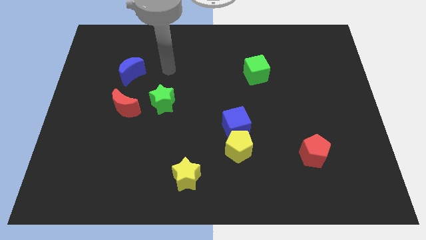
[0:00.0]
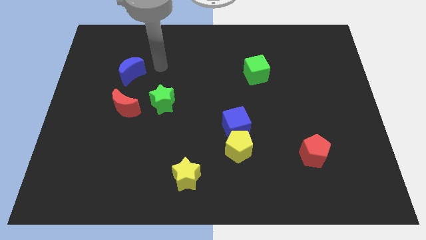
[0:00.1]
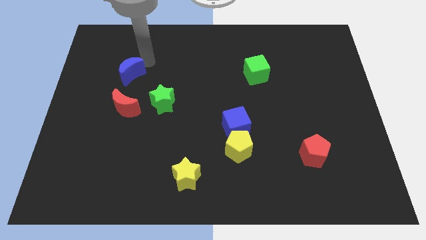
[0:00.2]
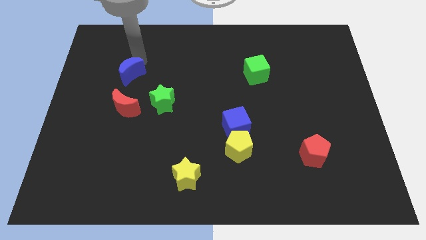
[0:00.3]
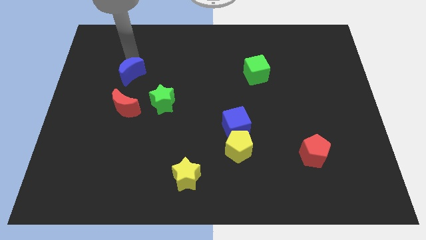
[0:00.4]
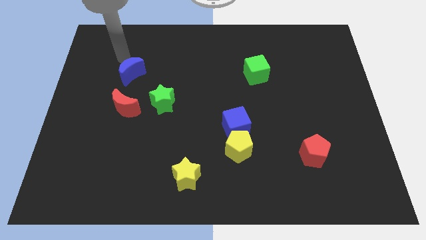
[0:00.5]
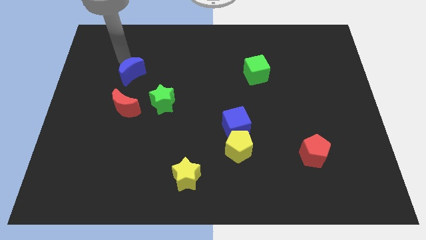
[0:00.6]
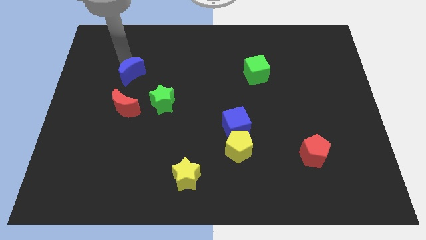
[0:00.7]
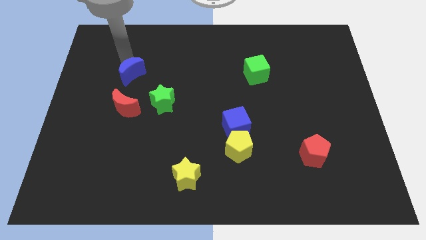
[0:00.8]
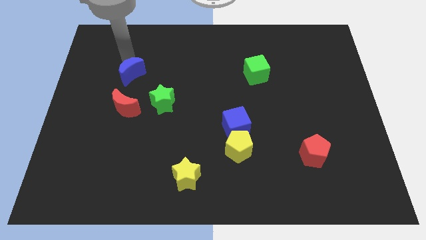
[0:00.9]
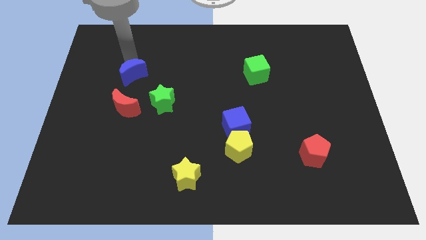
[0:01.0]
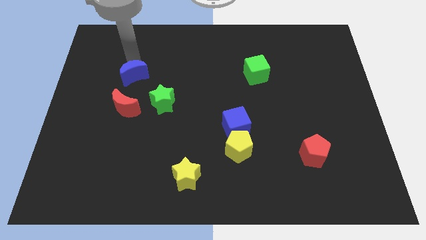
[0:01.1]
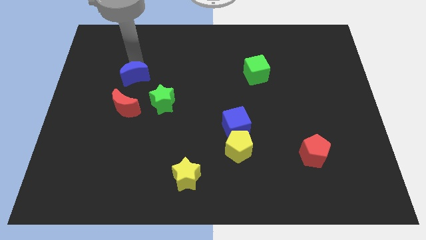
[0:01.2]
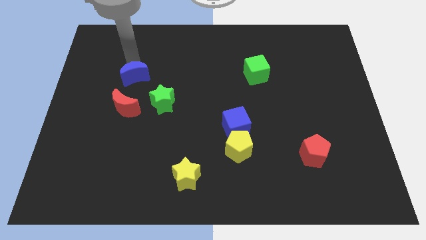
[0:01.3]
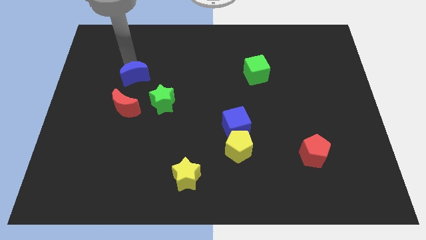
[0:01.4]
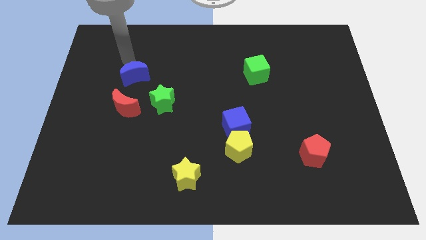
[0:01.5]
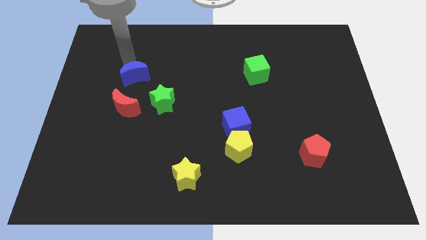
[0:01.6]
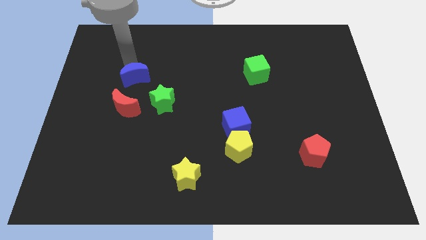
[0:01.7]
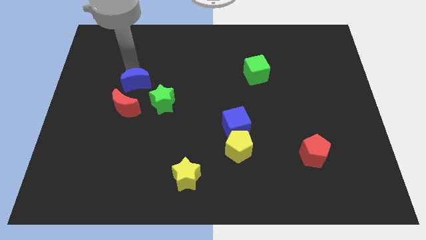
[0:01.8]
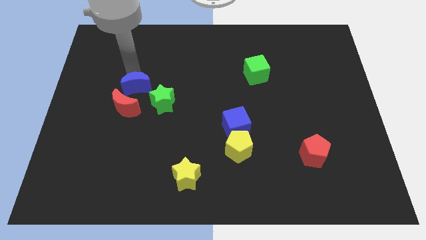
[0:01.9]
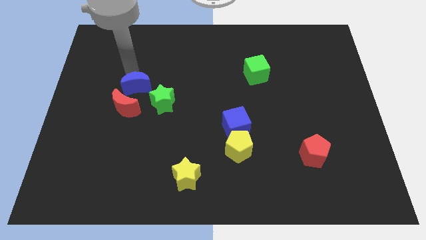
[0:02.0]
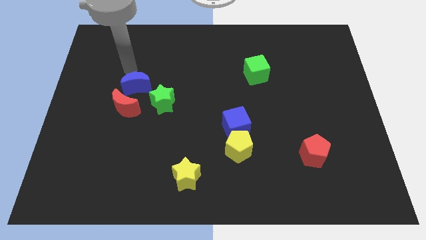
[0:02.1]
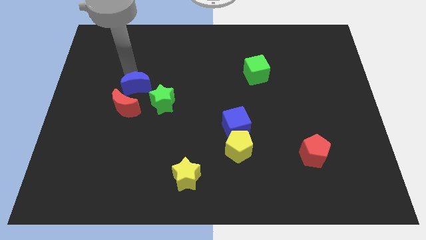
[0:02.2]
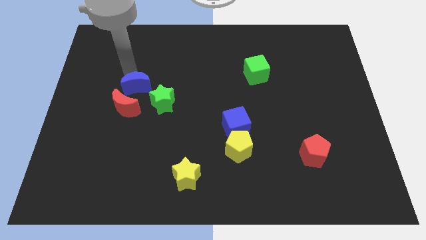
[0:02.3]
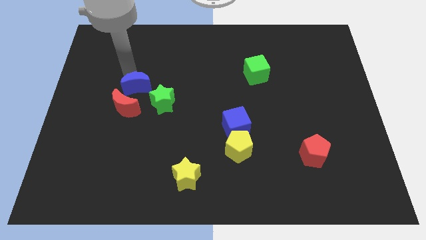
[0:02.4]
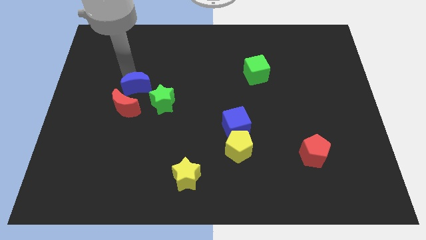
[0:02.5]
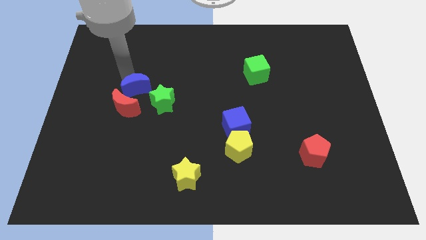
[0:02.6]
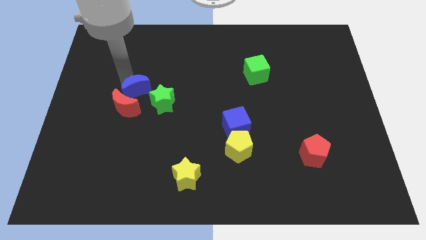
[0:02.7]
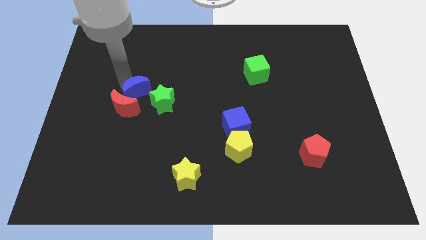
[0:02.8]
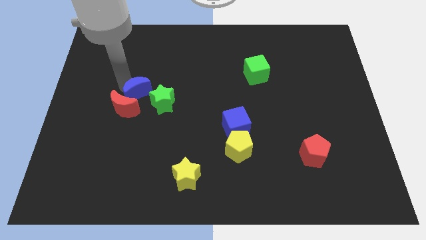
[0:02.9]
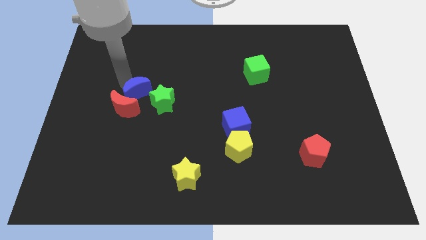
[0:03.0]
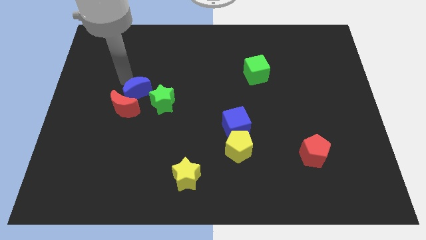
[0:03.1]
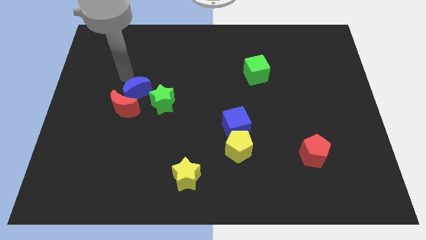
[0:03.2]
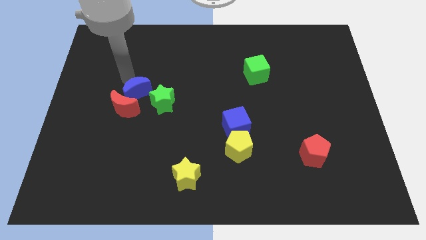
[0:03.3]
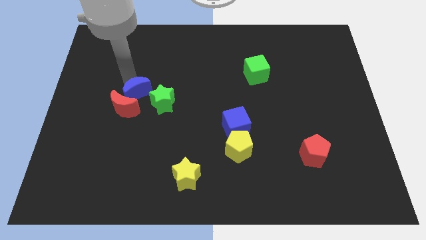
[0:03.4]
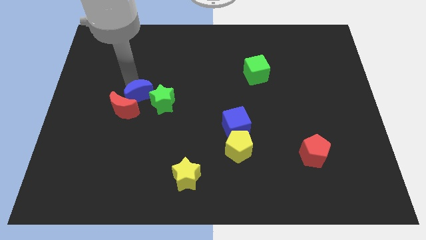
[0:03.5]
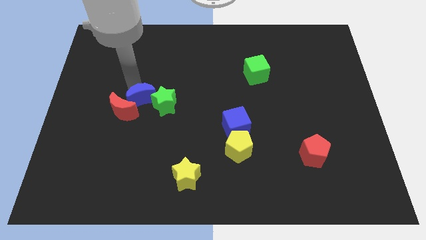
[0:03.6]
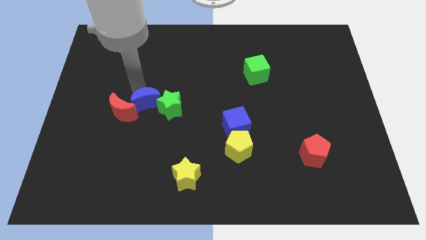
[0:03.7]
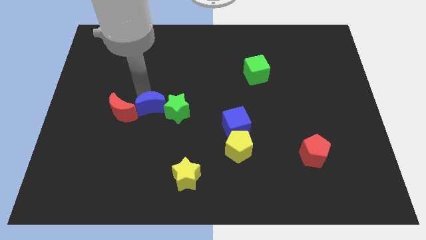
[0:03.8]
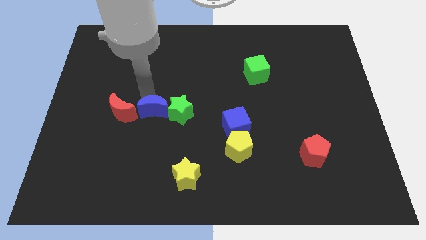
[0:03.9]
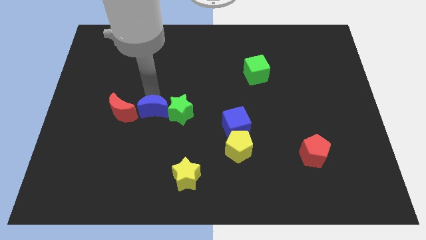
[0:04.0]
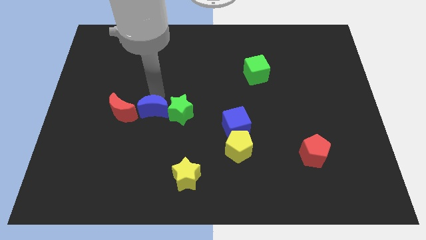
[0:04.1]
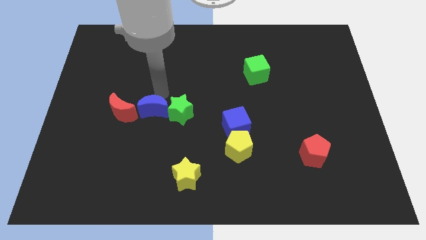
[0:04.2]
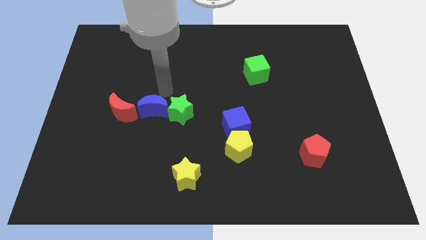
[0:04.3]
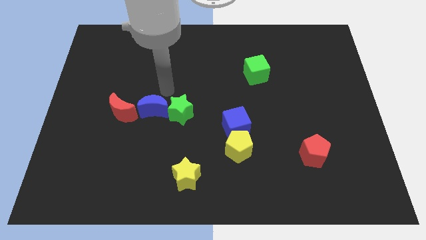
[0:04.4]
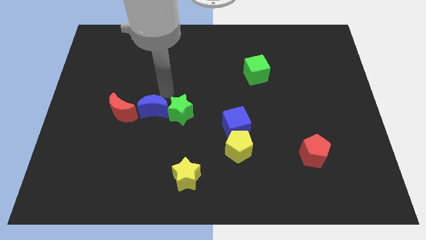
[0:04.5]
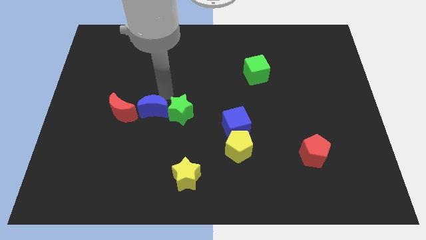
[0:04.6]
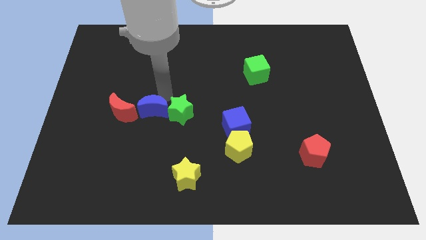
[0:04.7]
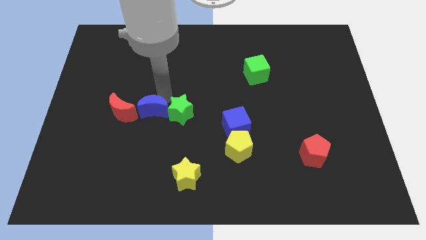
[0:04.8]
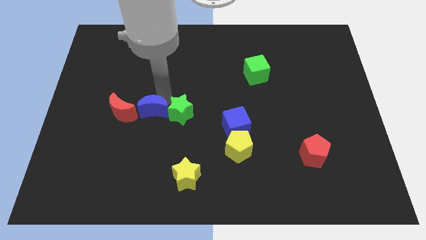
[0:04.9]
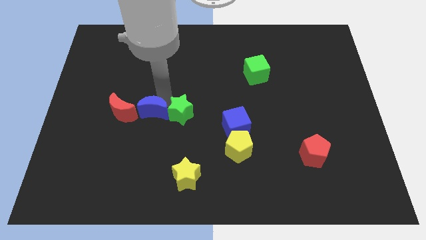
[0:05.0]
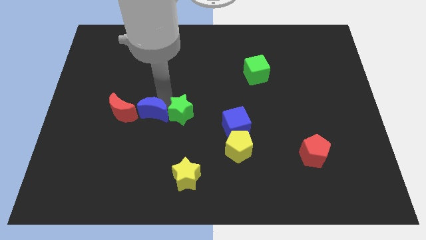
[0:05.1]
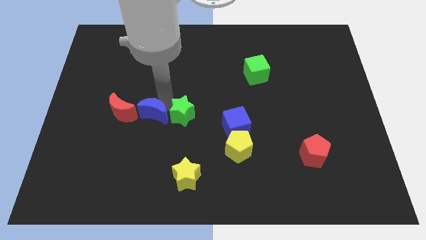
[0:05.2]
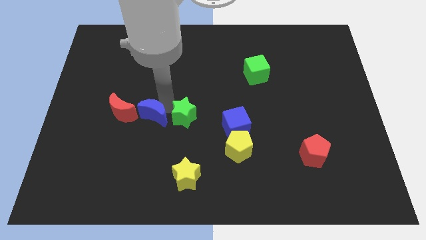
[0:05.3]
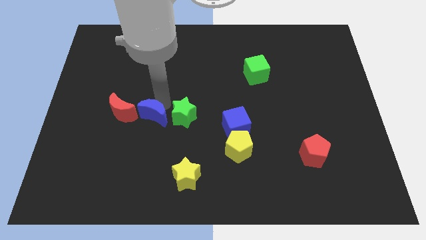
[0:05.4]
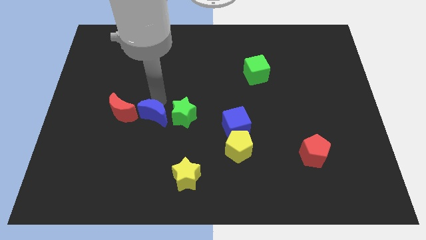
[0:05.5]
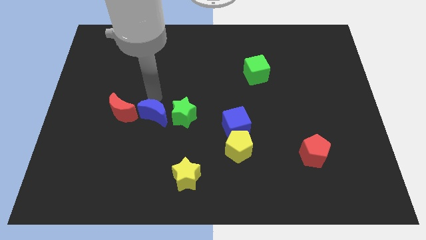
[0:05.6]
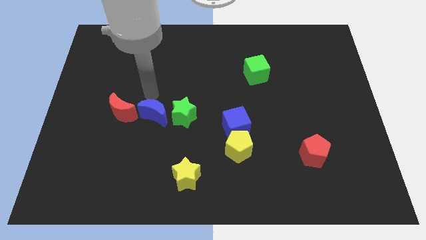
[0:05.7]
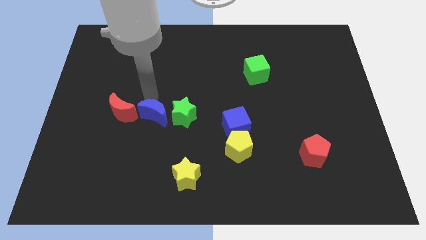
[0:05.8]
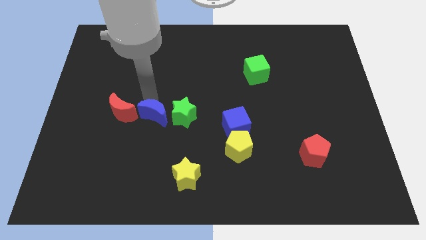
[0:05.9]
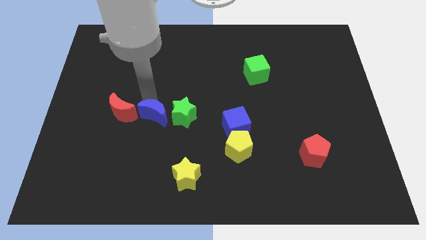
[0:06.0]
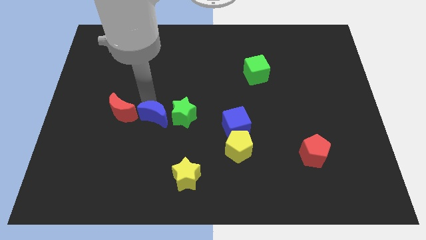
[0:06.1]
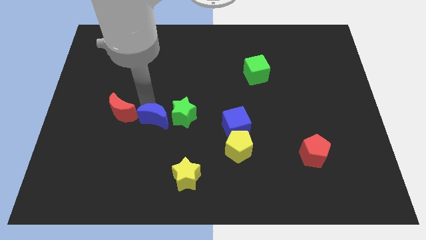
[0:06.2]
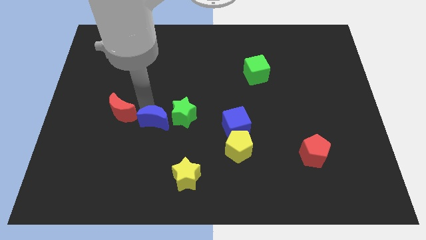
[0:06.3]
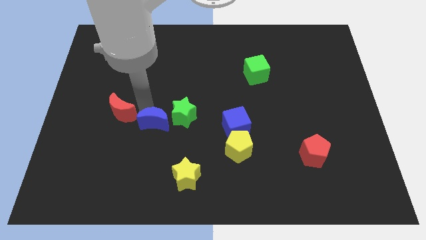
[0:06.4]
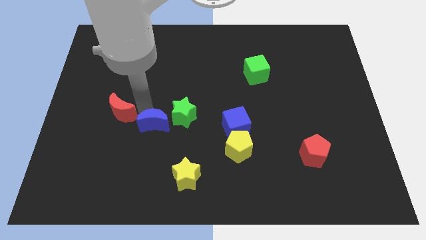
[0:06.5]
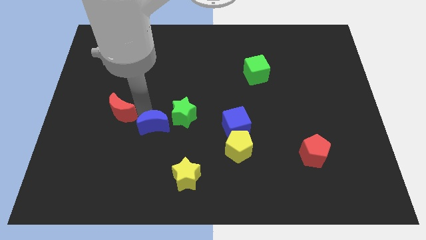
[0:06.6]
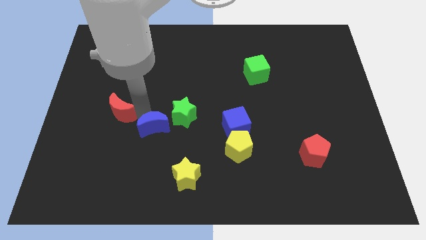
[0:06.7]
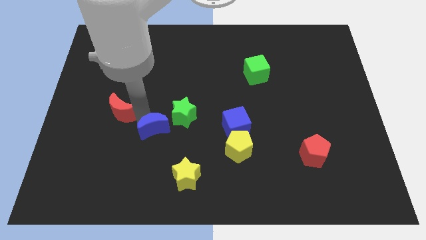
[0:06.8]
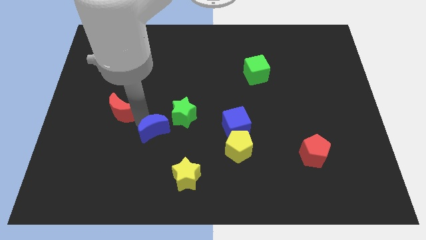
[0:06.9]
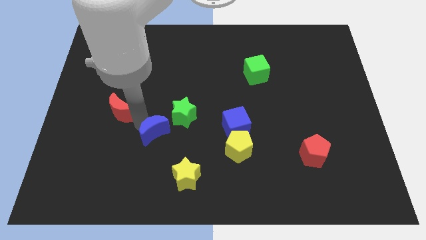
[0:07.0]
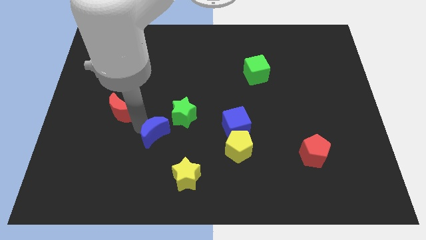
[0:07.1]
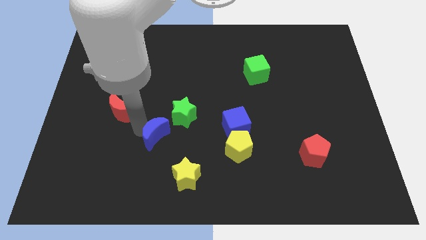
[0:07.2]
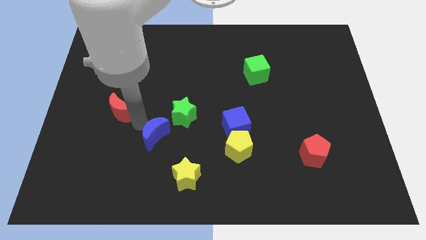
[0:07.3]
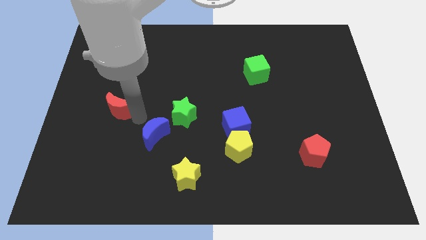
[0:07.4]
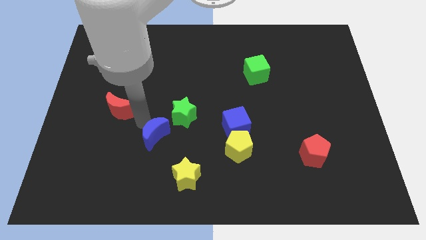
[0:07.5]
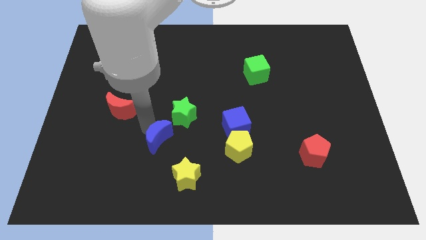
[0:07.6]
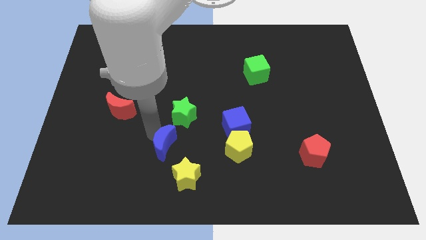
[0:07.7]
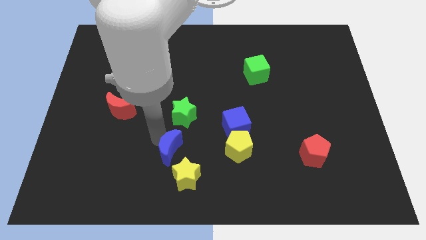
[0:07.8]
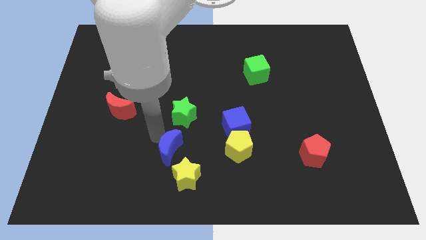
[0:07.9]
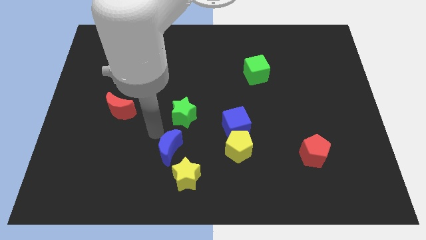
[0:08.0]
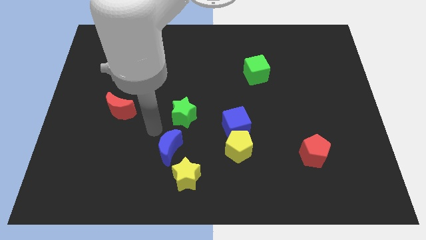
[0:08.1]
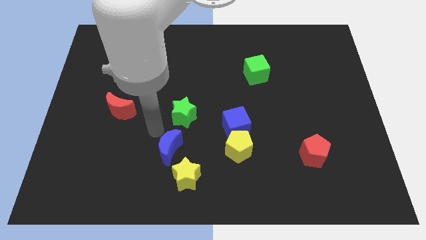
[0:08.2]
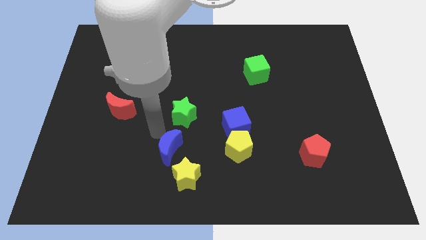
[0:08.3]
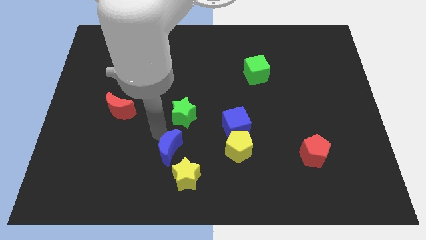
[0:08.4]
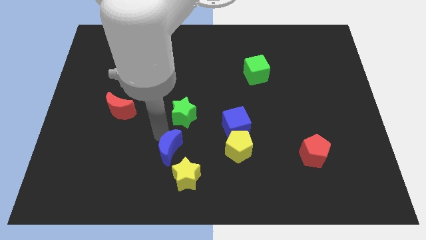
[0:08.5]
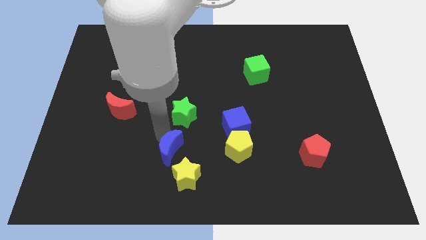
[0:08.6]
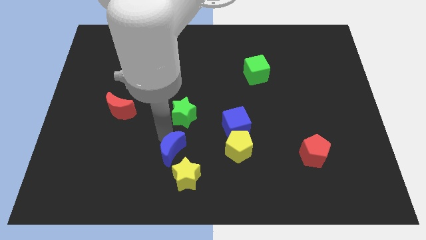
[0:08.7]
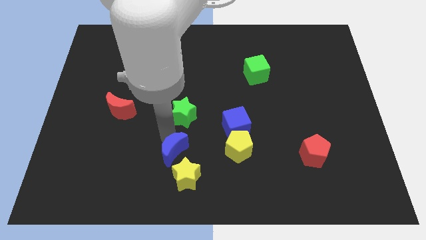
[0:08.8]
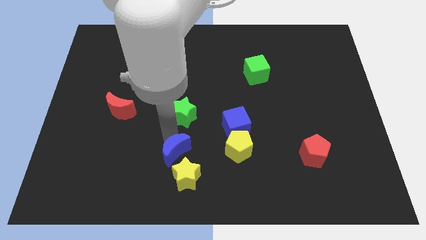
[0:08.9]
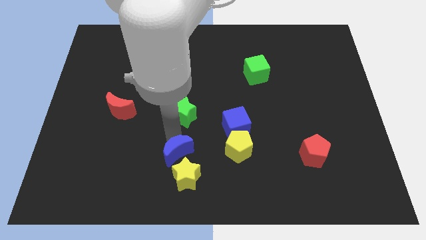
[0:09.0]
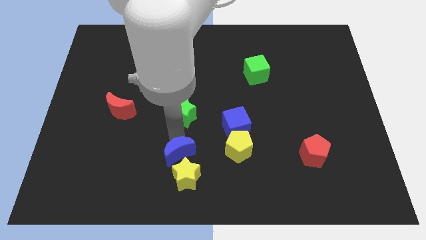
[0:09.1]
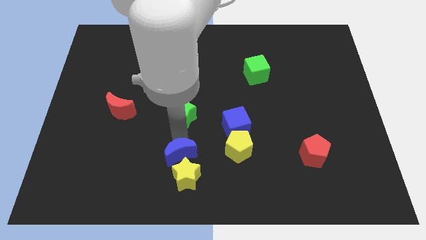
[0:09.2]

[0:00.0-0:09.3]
move the blue moon towards the yellow star
